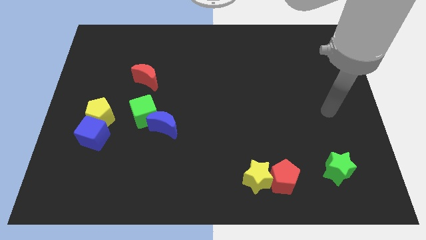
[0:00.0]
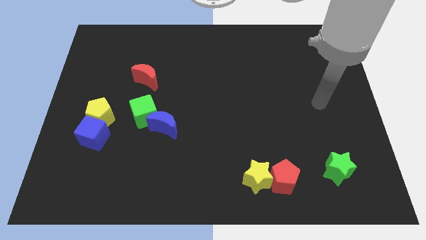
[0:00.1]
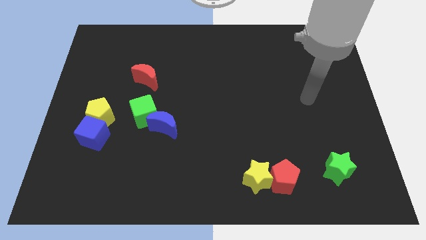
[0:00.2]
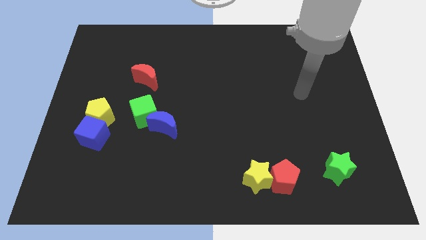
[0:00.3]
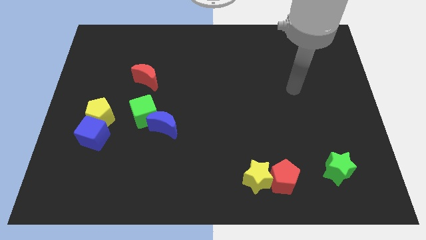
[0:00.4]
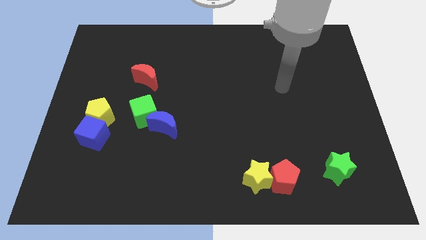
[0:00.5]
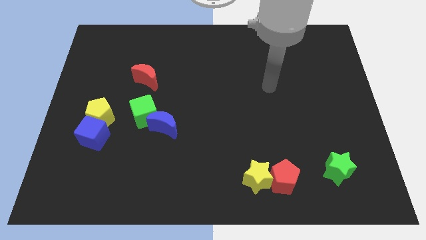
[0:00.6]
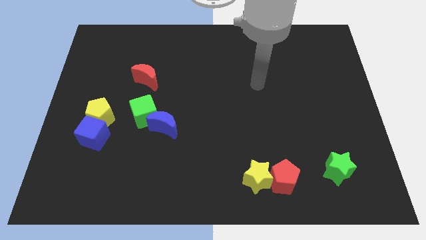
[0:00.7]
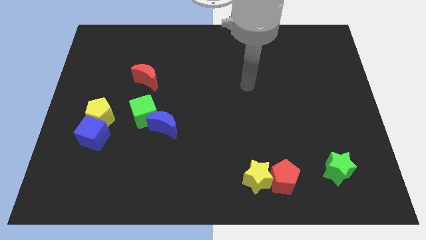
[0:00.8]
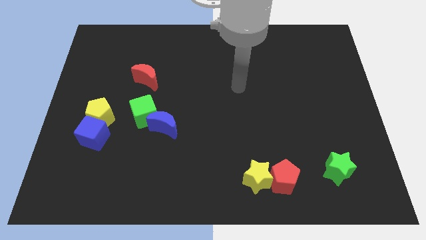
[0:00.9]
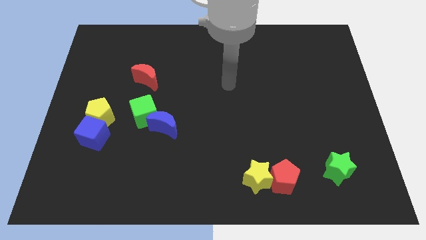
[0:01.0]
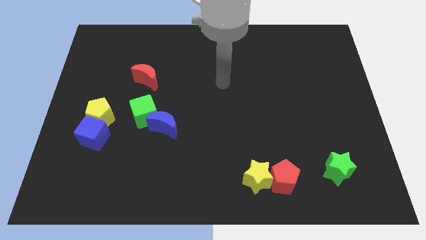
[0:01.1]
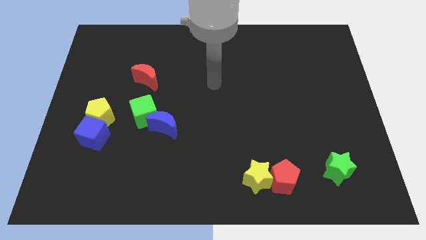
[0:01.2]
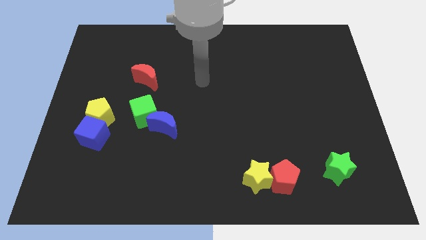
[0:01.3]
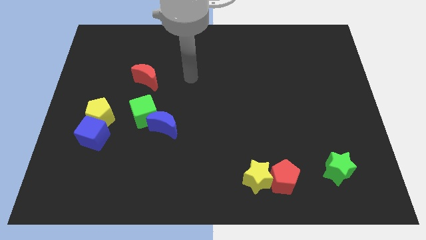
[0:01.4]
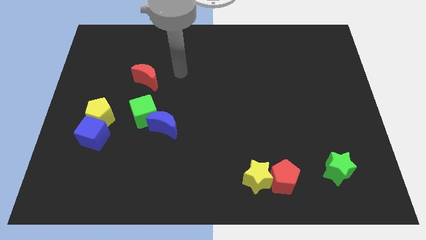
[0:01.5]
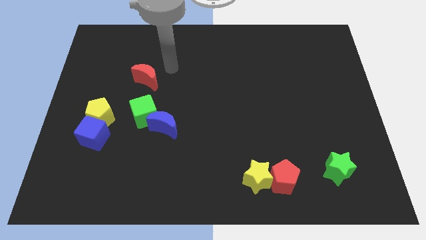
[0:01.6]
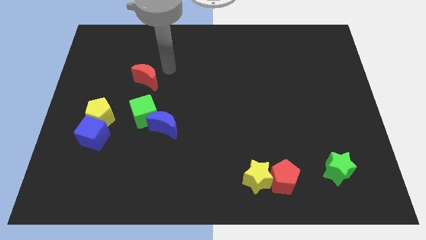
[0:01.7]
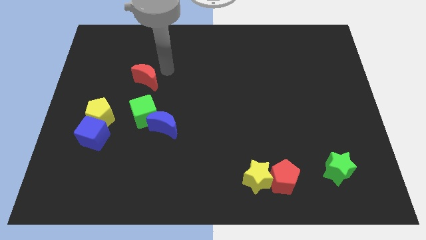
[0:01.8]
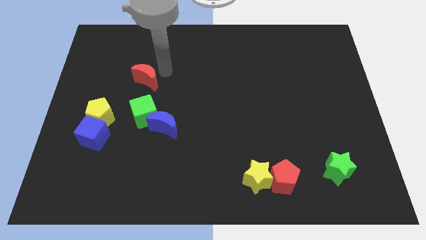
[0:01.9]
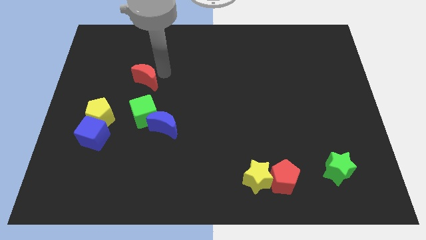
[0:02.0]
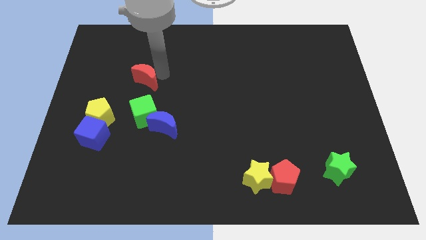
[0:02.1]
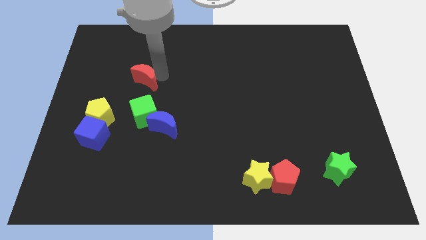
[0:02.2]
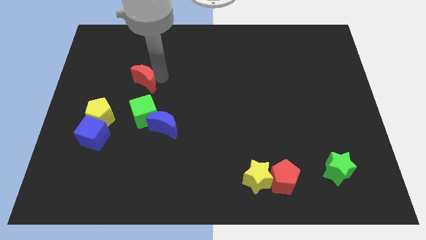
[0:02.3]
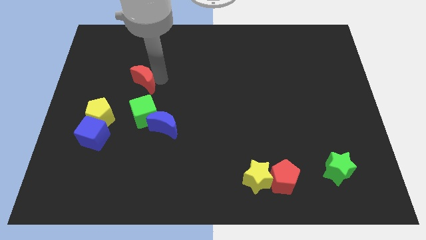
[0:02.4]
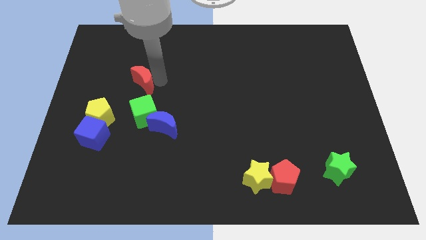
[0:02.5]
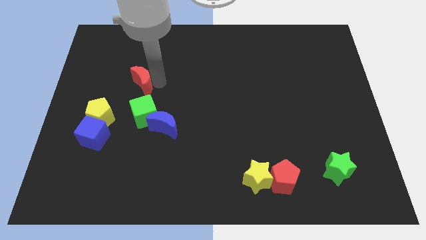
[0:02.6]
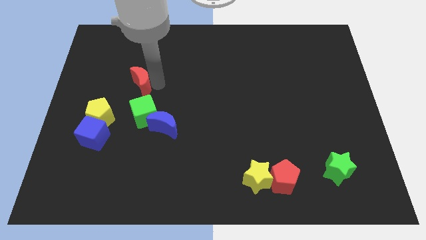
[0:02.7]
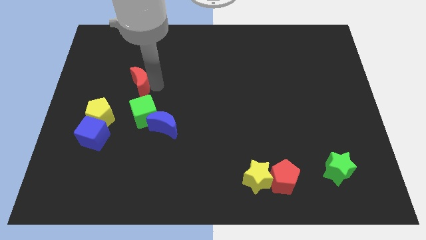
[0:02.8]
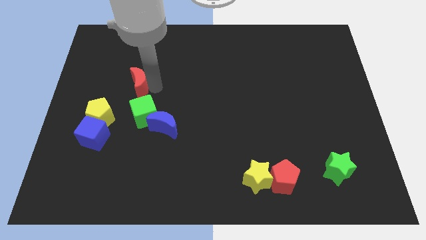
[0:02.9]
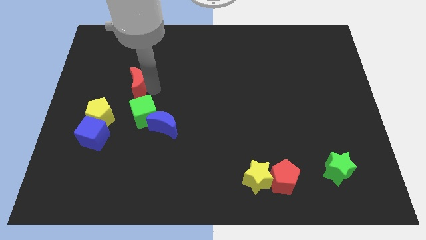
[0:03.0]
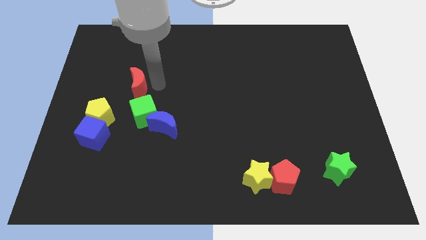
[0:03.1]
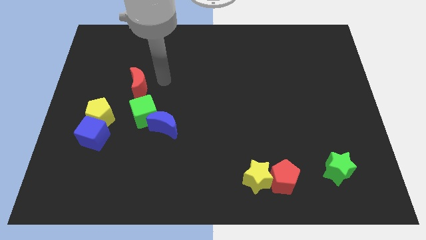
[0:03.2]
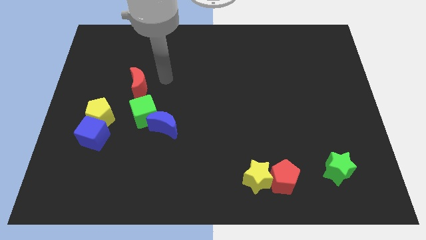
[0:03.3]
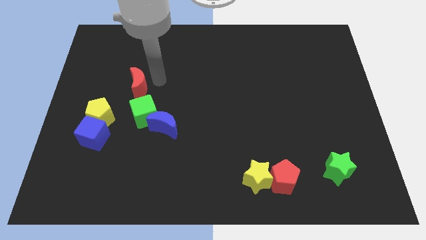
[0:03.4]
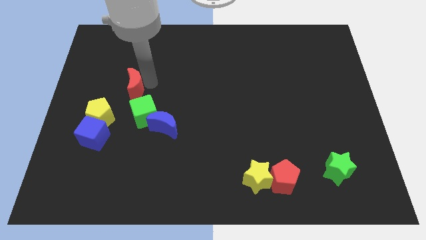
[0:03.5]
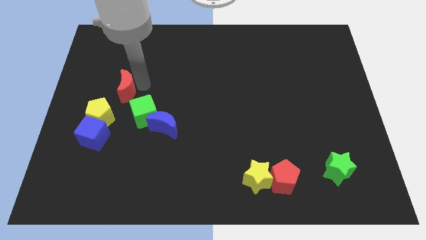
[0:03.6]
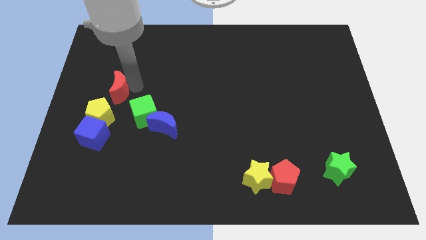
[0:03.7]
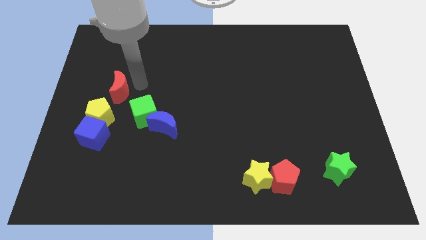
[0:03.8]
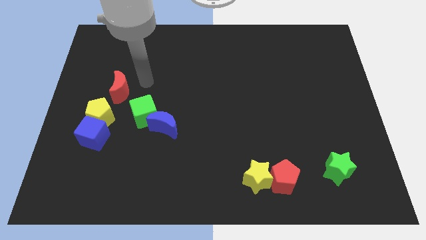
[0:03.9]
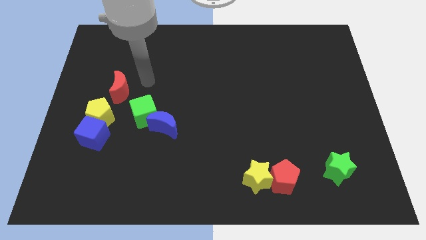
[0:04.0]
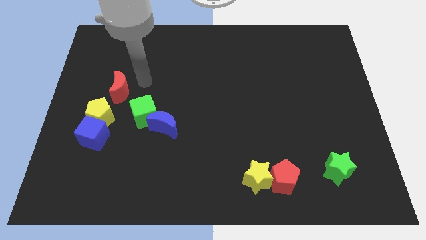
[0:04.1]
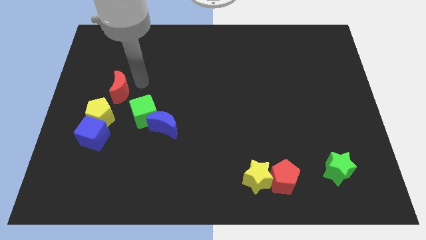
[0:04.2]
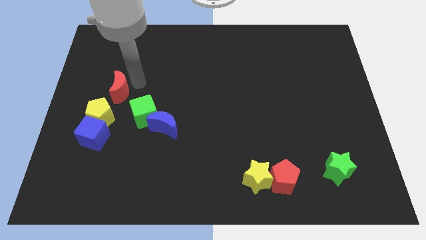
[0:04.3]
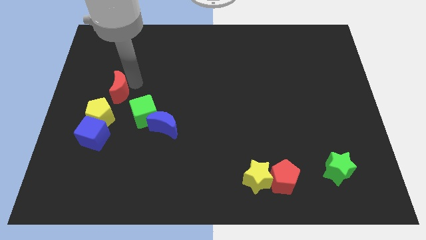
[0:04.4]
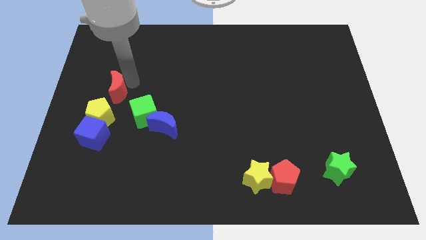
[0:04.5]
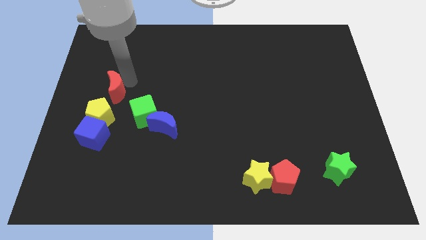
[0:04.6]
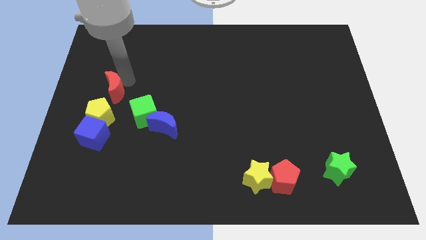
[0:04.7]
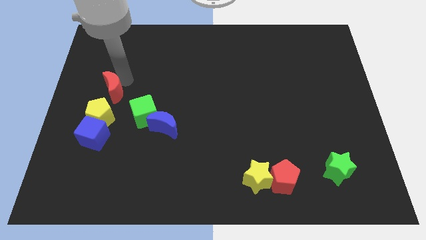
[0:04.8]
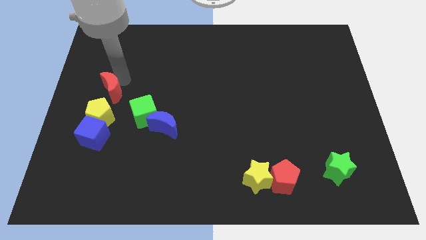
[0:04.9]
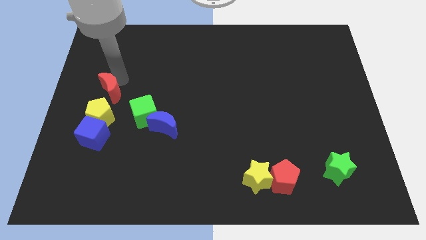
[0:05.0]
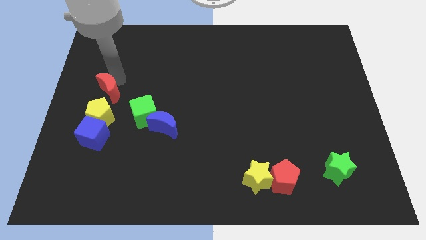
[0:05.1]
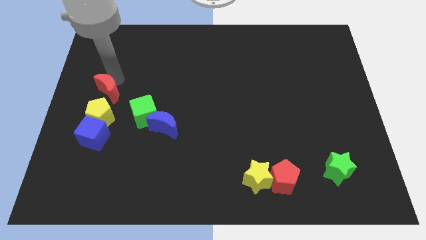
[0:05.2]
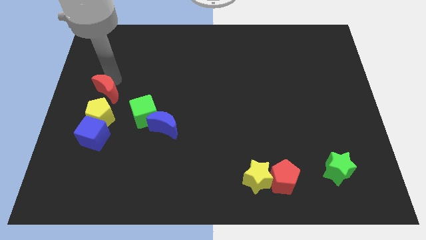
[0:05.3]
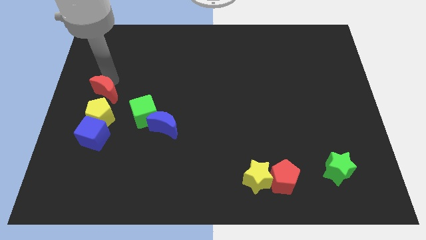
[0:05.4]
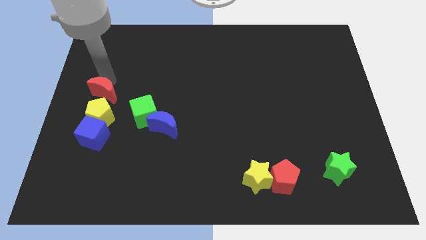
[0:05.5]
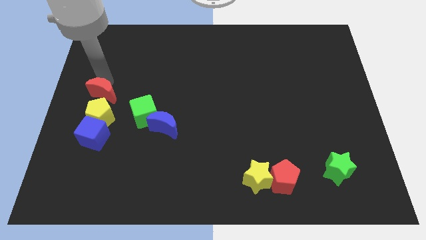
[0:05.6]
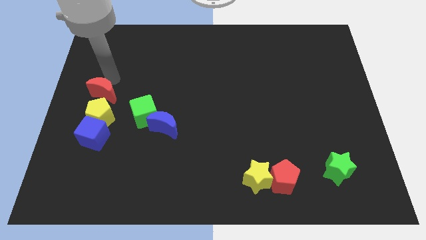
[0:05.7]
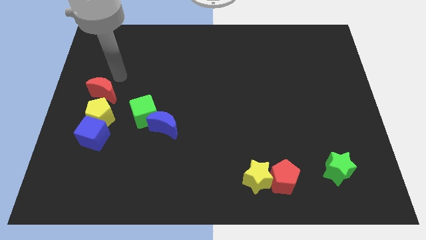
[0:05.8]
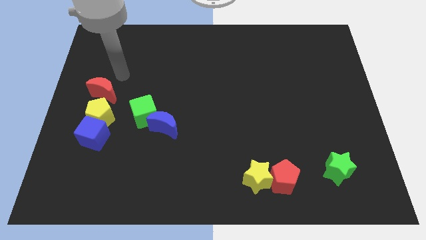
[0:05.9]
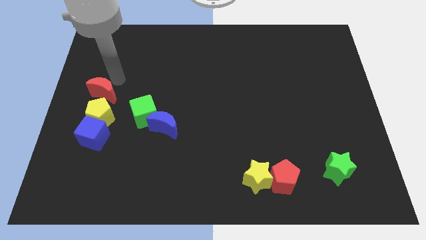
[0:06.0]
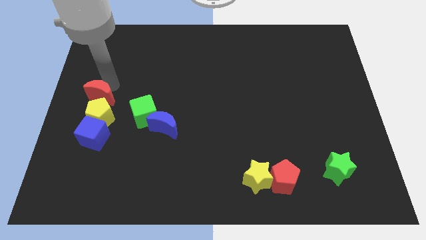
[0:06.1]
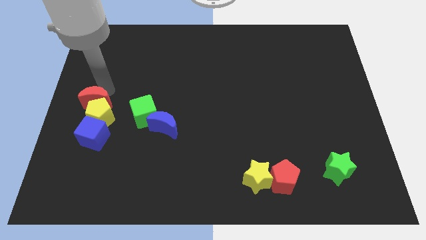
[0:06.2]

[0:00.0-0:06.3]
push the red moon to the left of the green cube

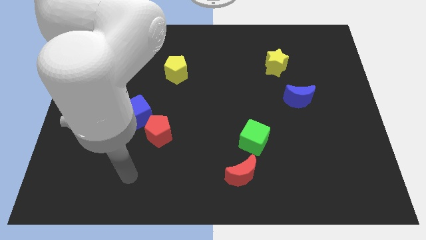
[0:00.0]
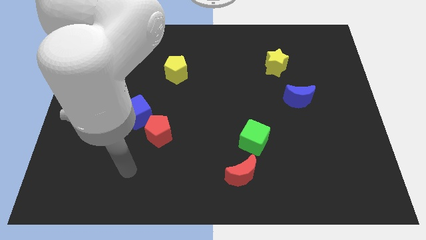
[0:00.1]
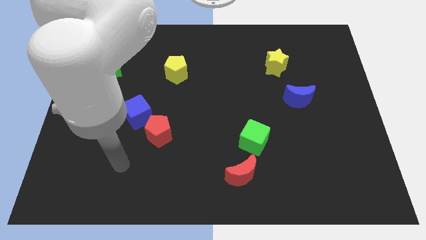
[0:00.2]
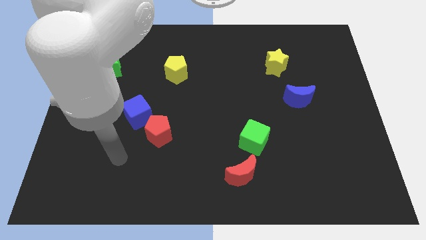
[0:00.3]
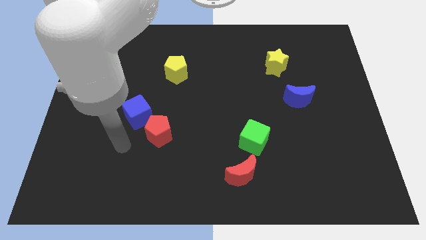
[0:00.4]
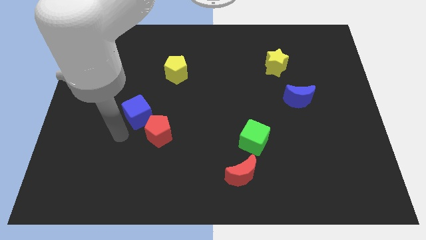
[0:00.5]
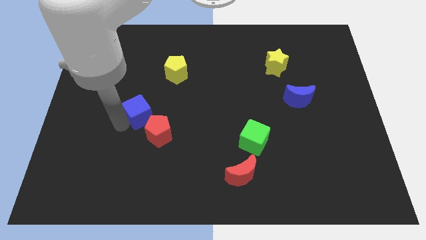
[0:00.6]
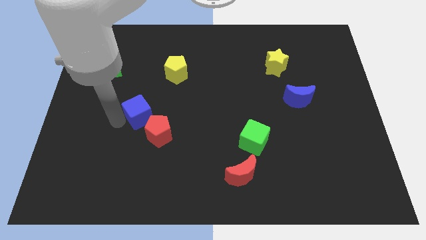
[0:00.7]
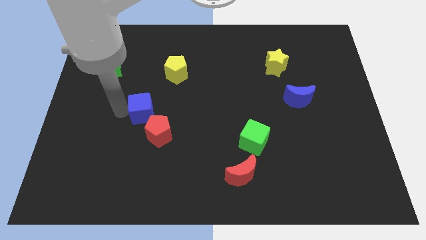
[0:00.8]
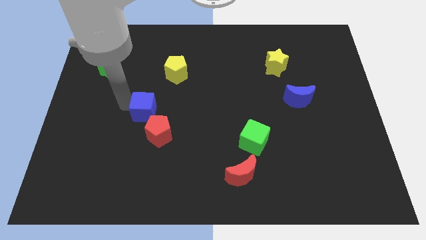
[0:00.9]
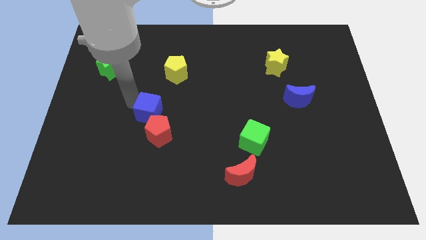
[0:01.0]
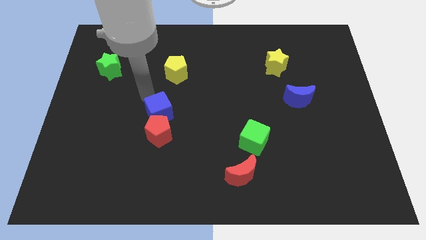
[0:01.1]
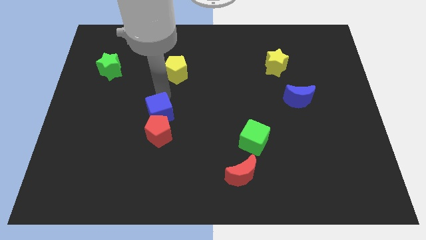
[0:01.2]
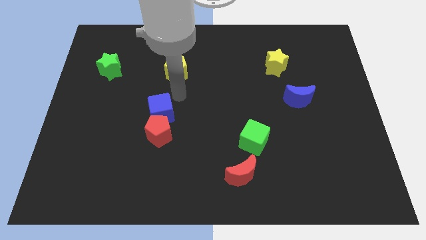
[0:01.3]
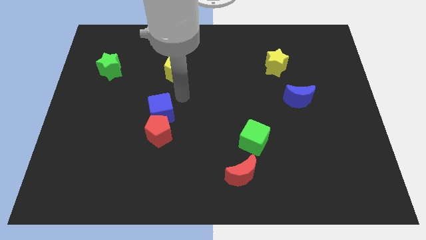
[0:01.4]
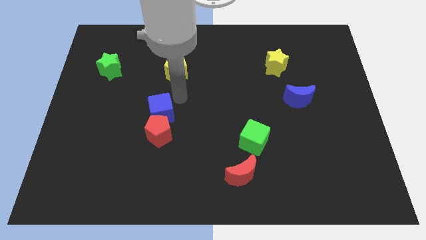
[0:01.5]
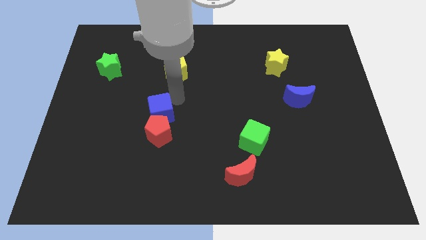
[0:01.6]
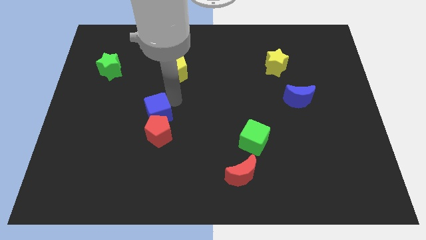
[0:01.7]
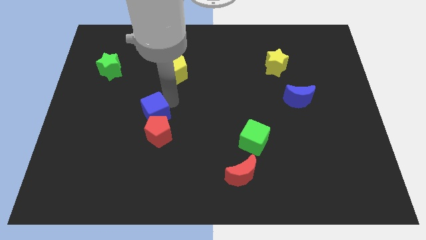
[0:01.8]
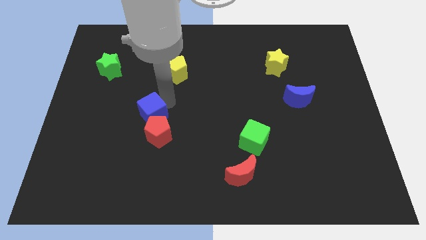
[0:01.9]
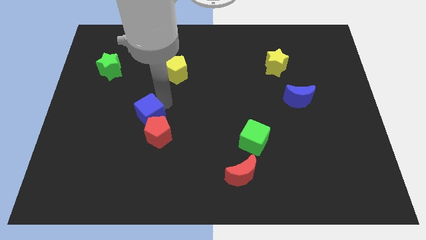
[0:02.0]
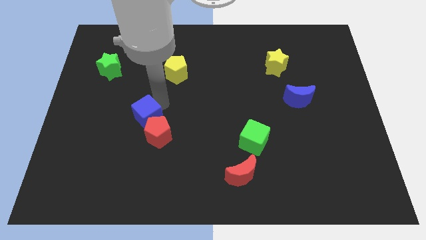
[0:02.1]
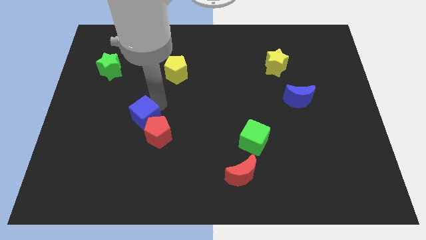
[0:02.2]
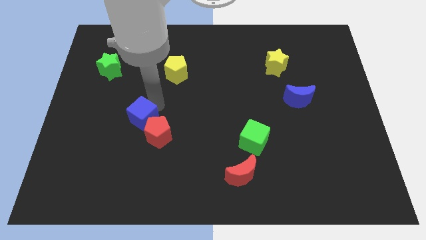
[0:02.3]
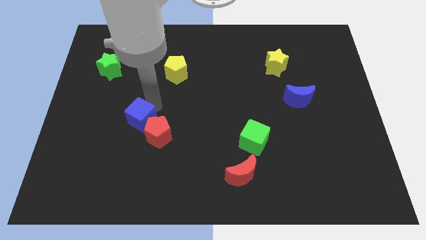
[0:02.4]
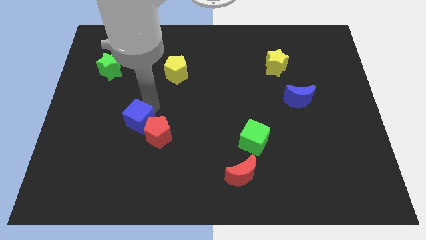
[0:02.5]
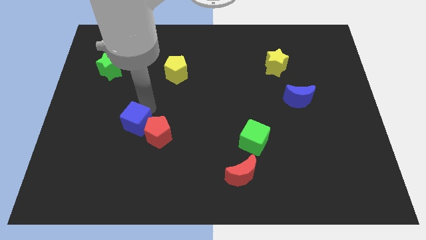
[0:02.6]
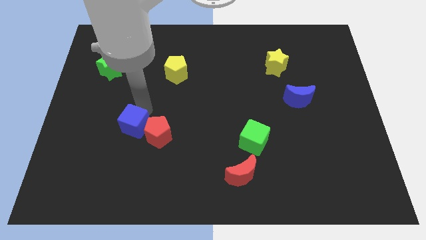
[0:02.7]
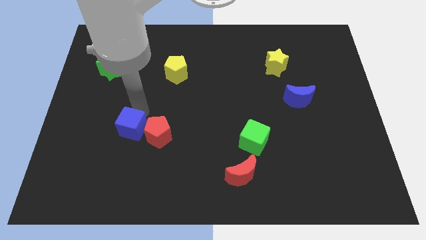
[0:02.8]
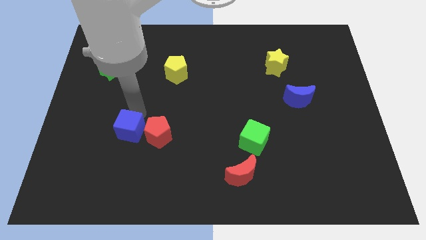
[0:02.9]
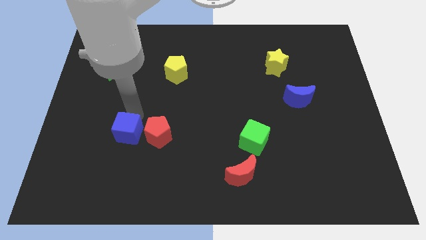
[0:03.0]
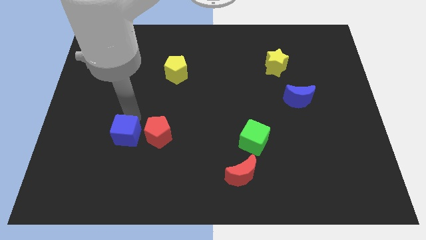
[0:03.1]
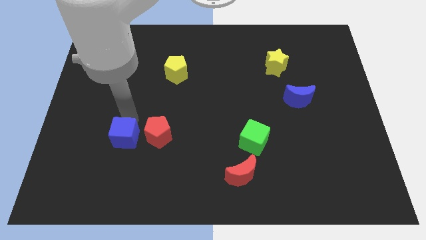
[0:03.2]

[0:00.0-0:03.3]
put the blue cube diagonally down and to the left of the red pentagon
